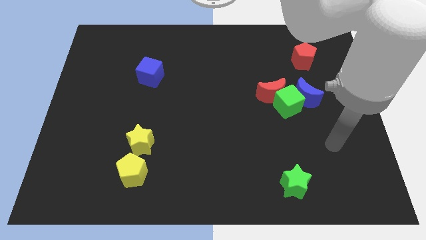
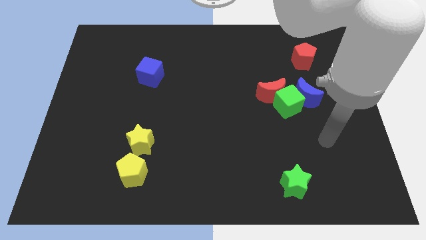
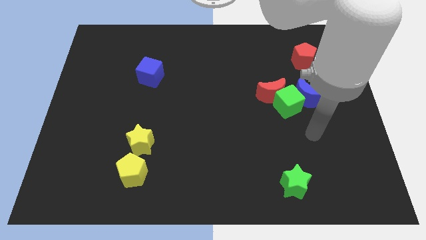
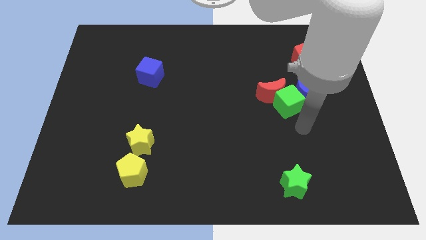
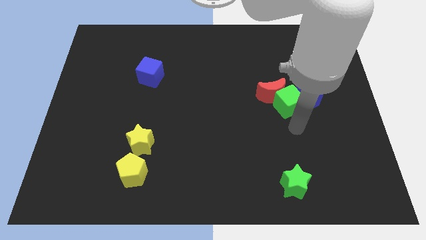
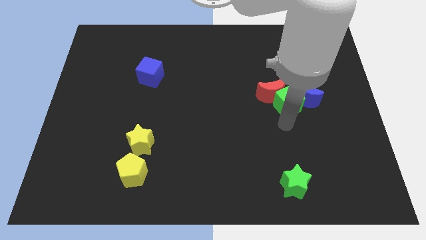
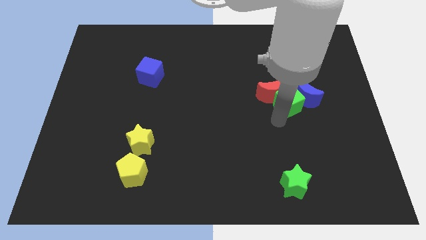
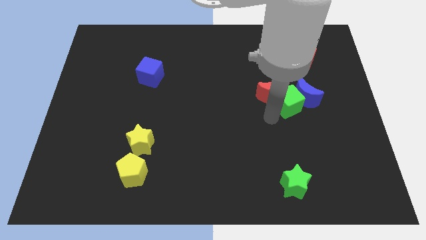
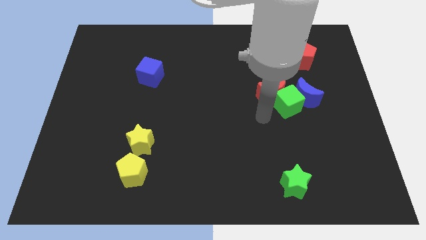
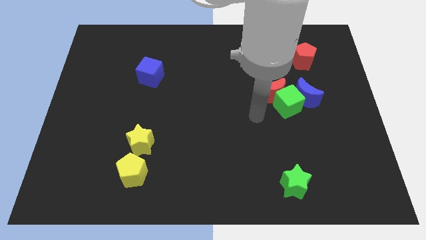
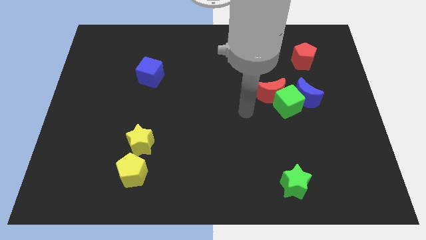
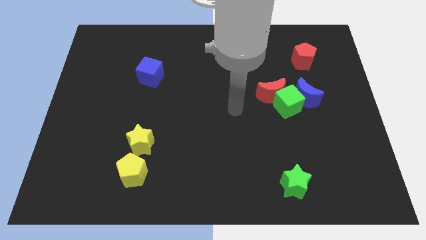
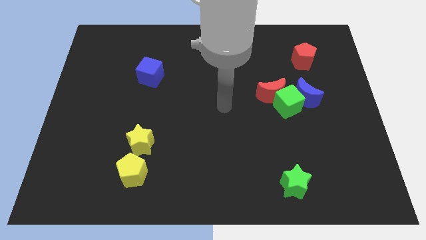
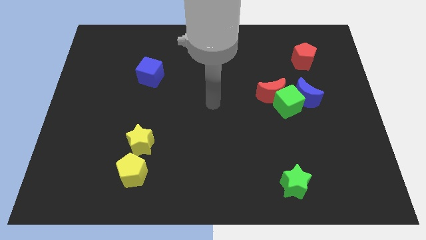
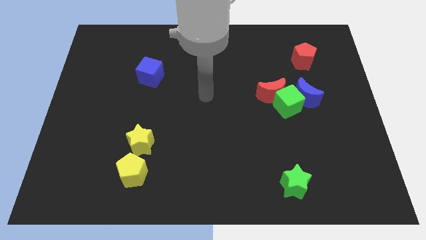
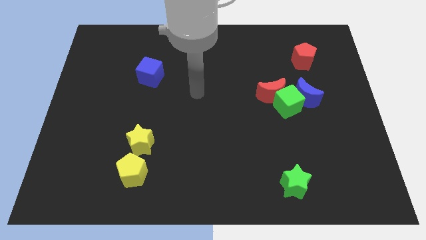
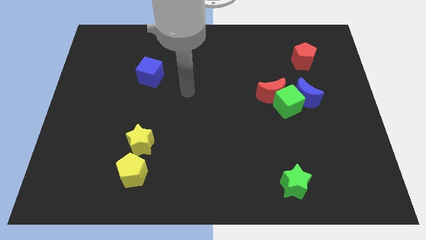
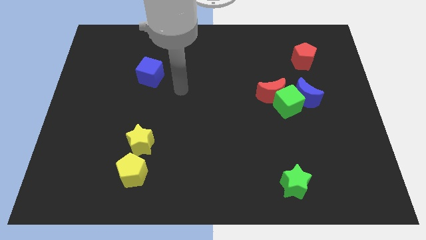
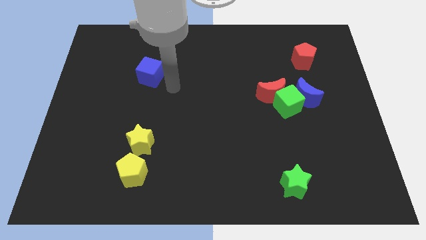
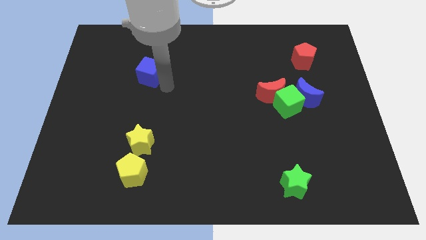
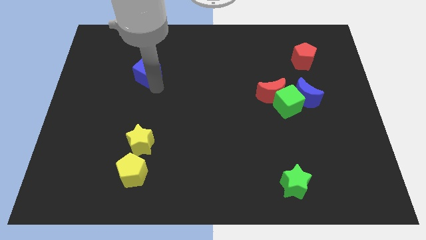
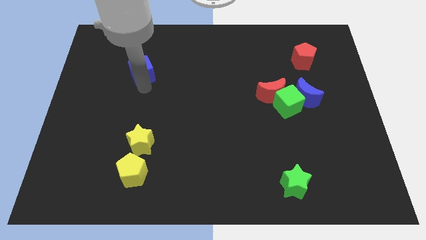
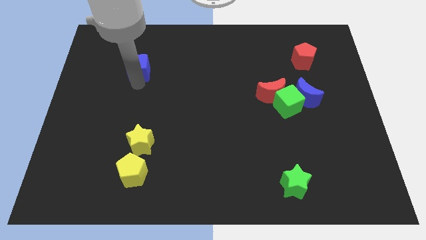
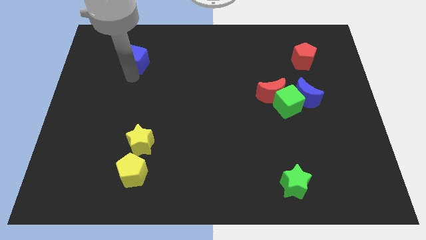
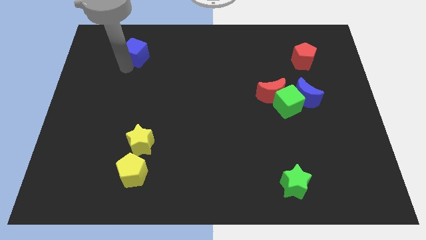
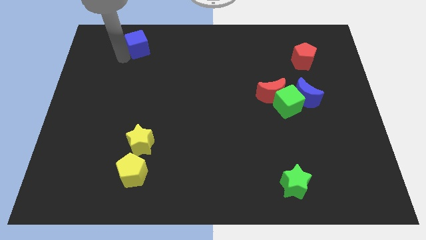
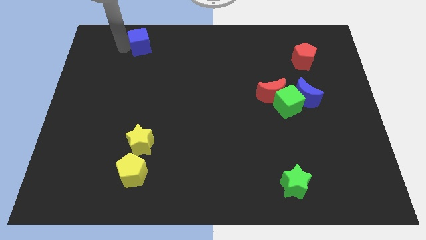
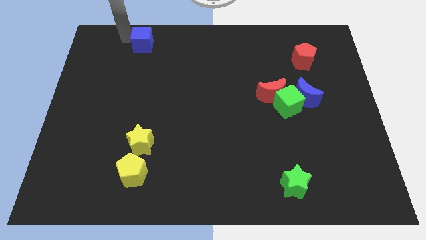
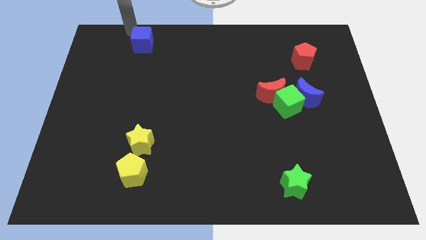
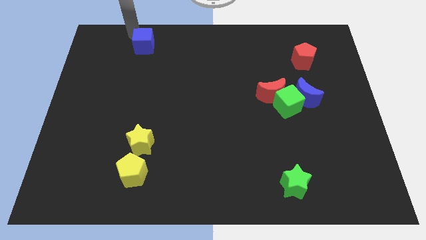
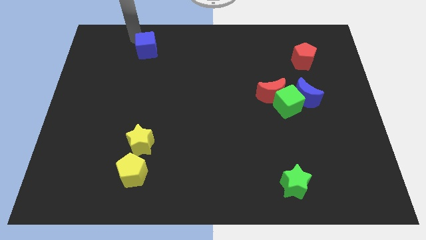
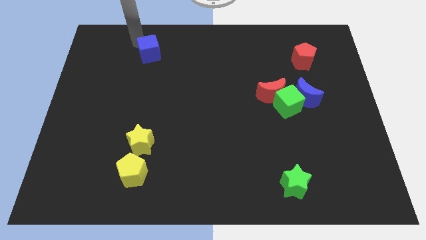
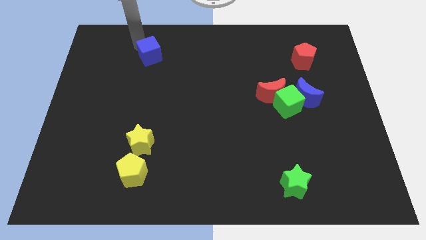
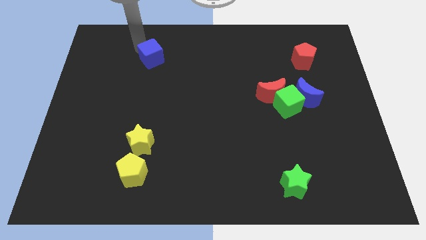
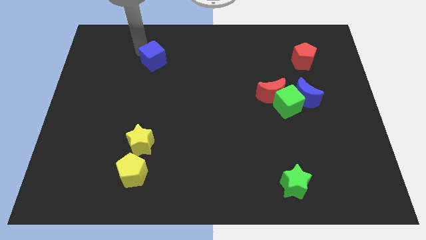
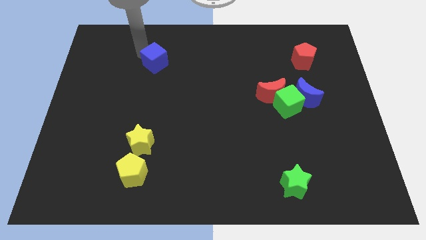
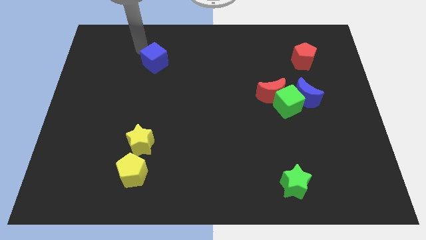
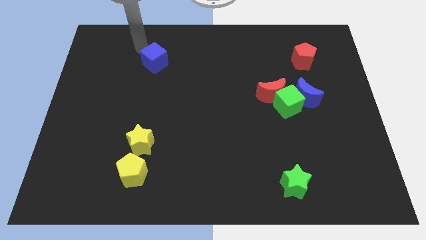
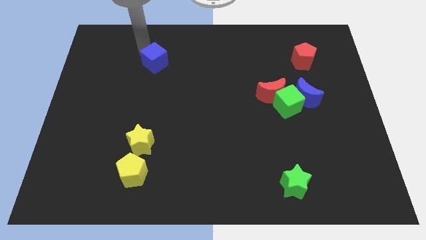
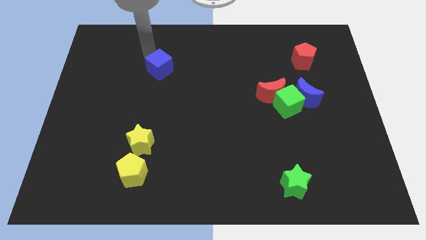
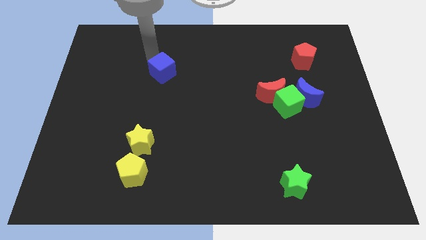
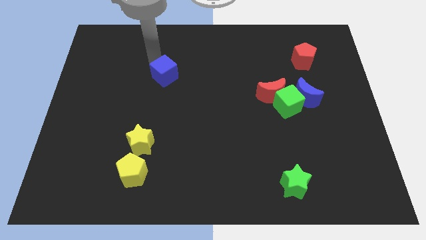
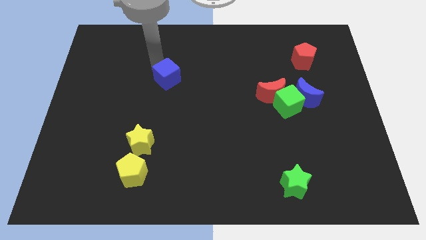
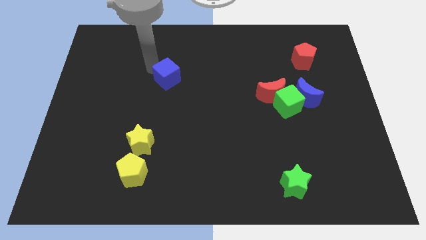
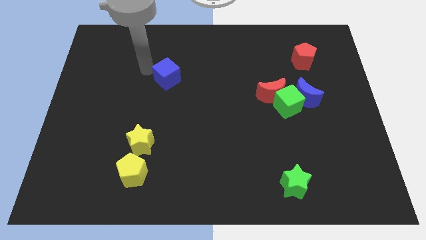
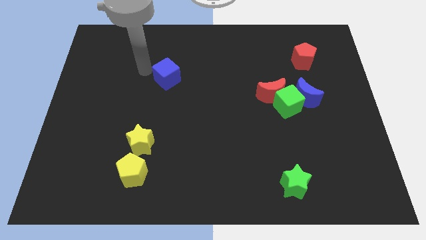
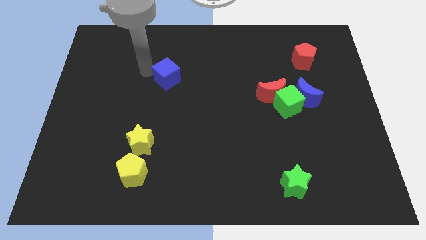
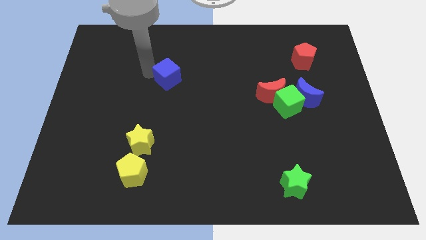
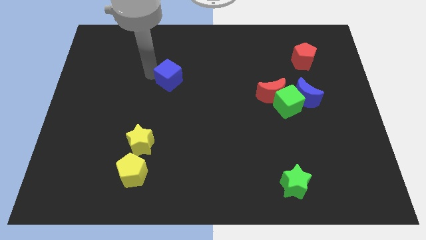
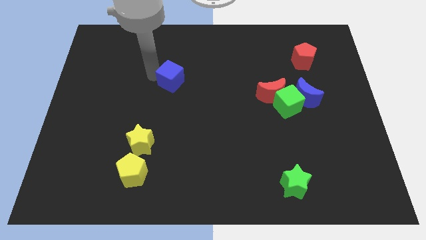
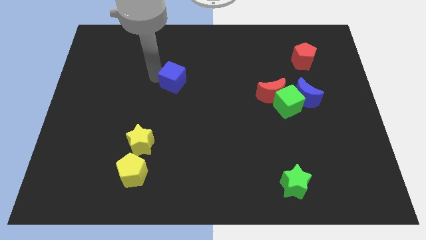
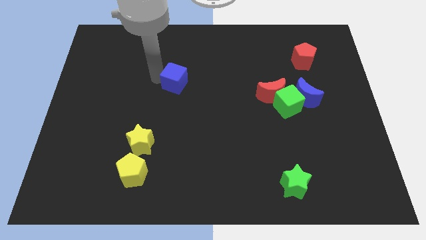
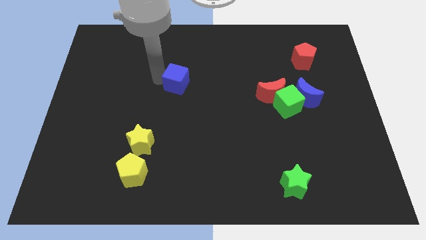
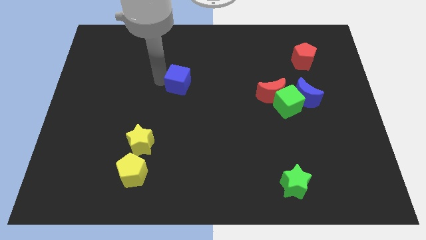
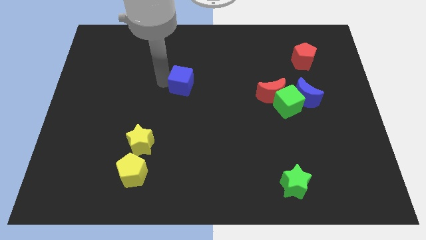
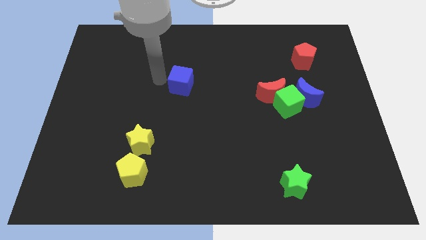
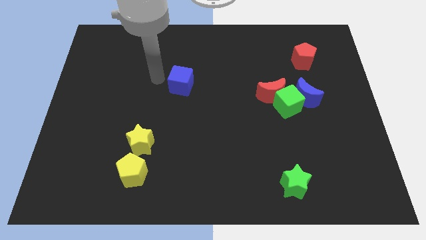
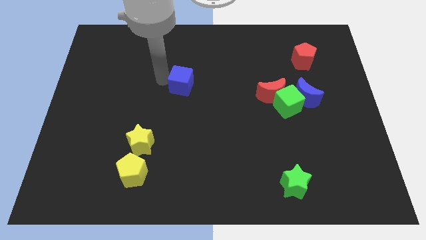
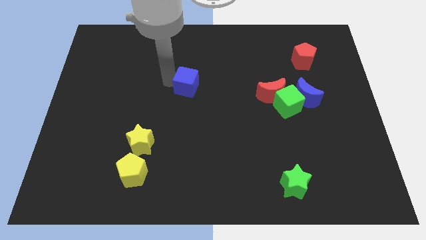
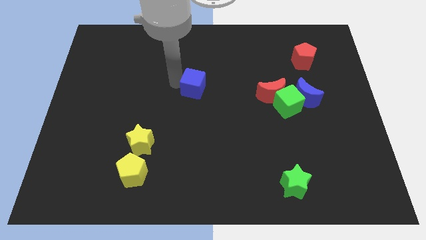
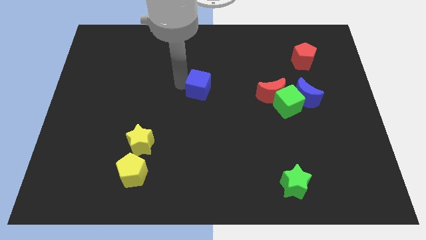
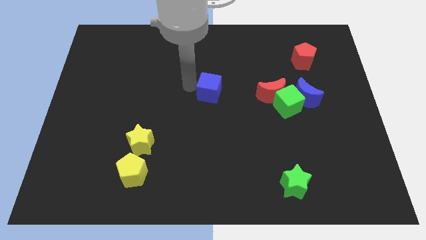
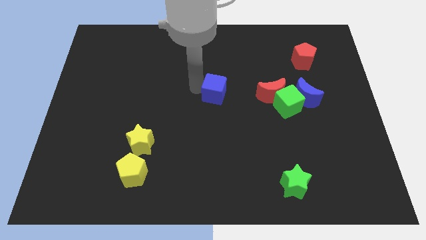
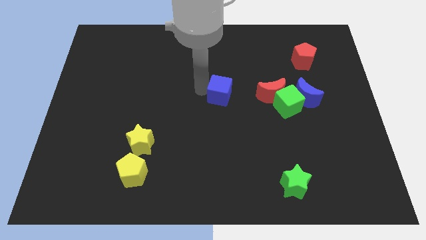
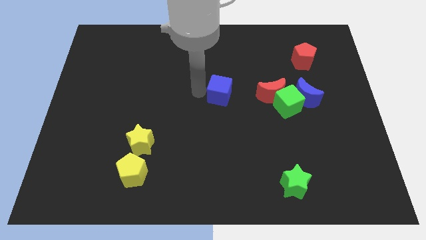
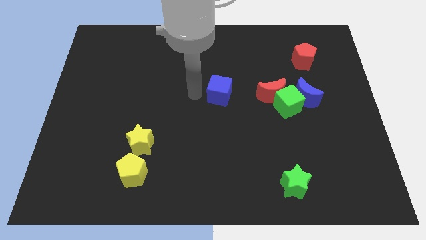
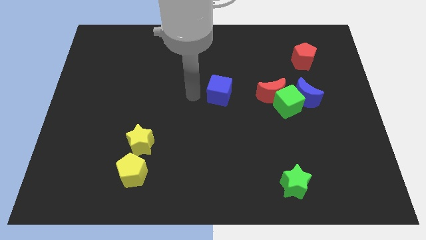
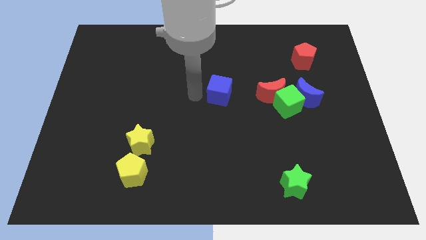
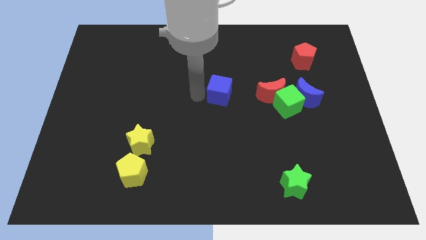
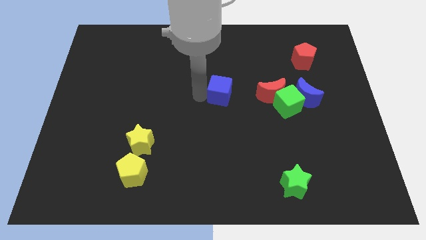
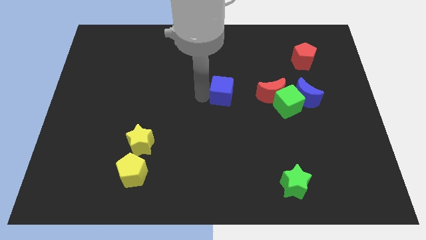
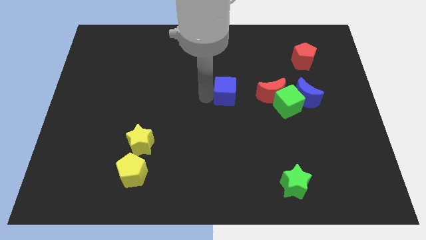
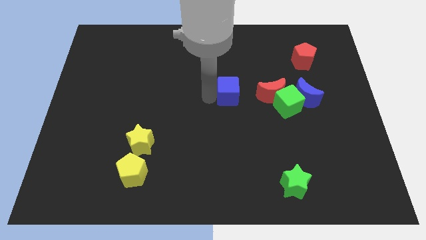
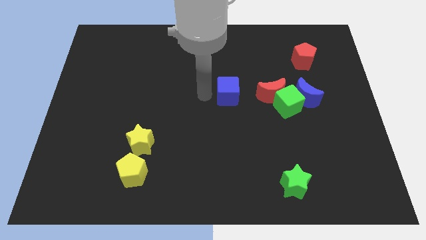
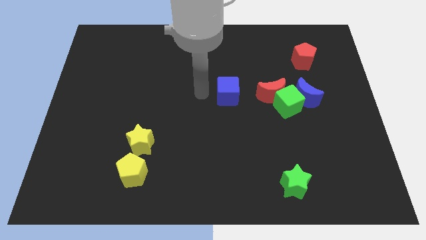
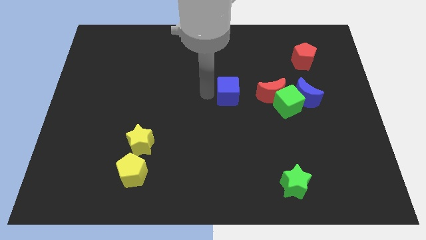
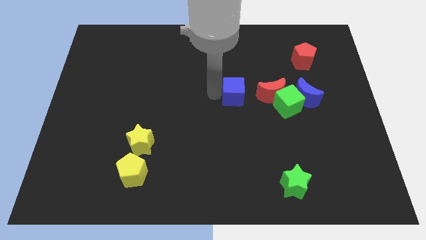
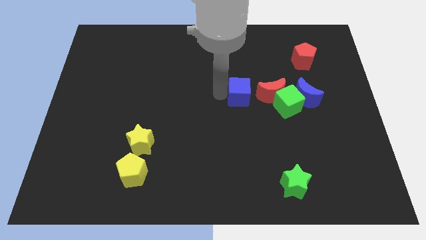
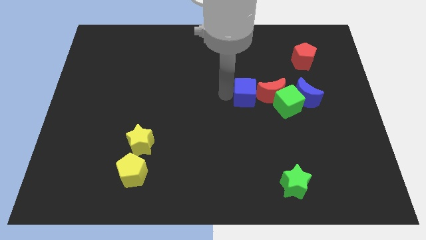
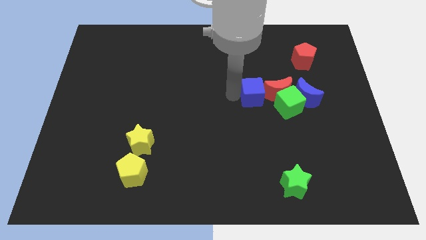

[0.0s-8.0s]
slide the blue cube close to the red moon
